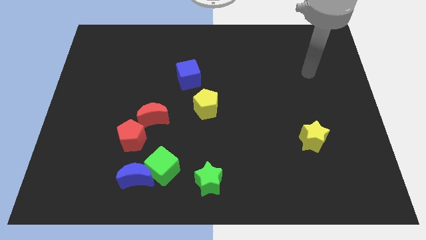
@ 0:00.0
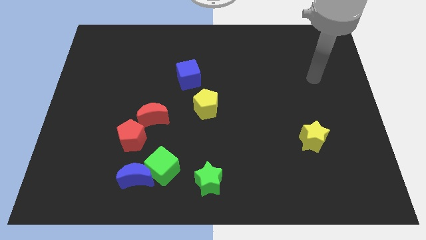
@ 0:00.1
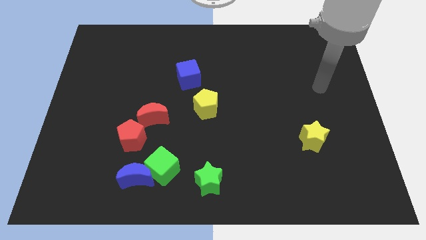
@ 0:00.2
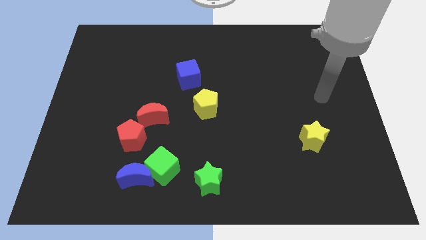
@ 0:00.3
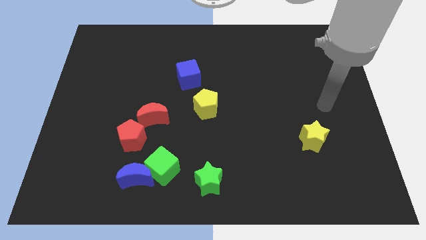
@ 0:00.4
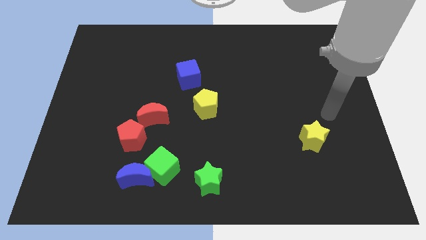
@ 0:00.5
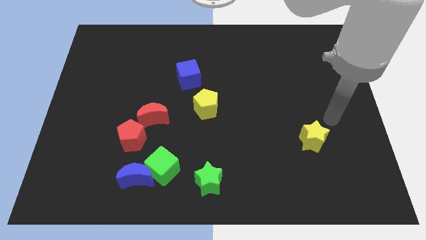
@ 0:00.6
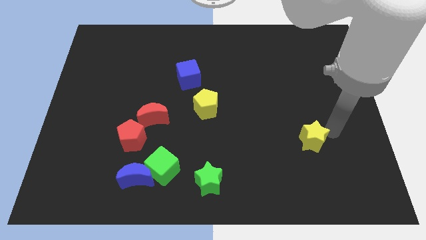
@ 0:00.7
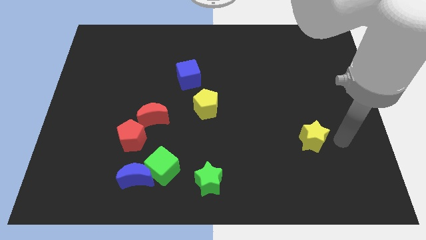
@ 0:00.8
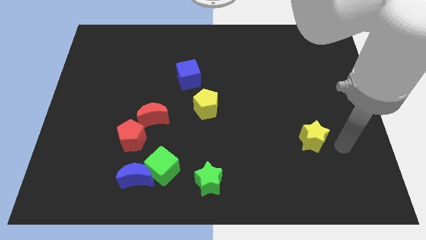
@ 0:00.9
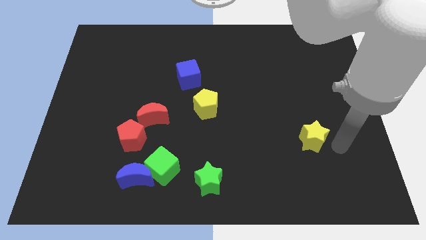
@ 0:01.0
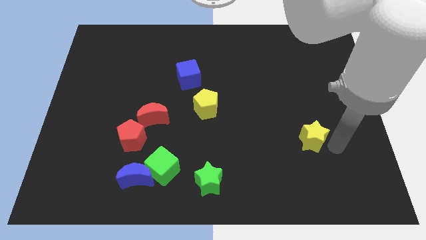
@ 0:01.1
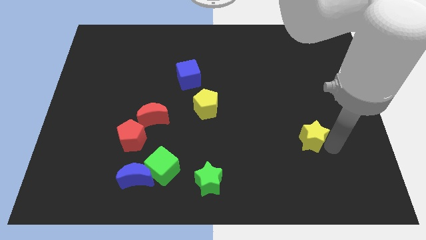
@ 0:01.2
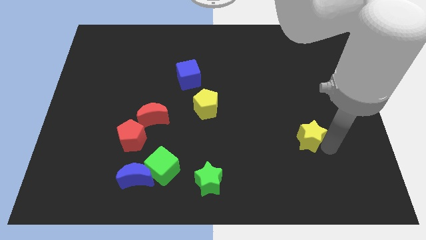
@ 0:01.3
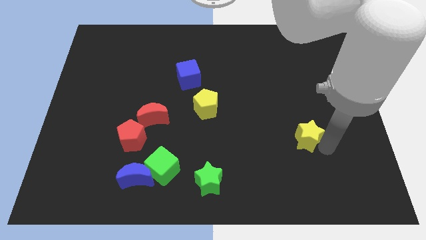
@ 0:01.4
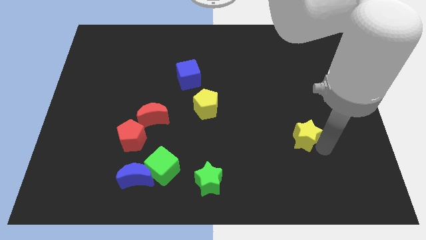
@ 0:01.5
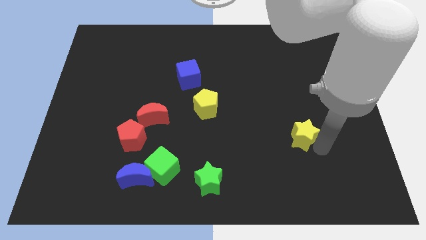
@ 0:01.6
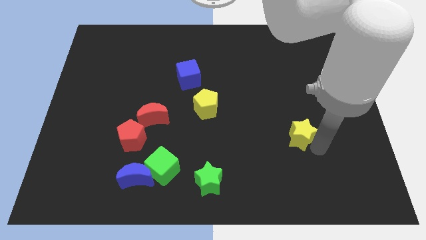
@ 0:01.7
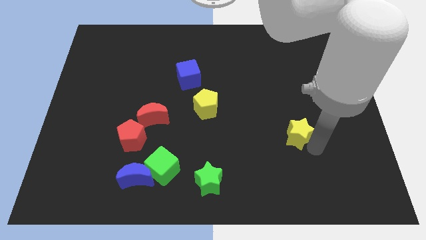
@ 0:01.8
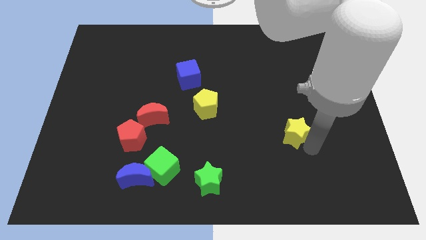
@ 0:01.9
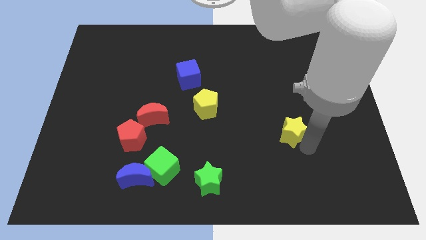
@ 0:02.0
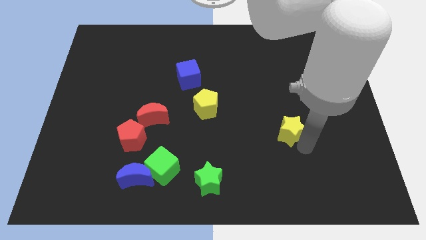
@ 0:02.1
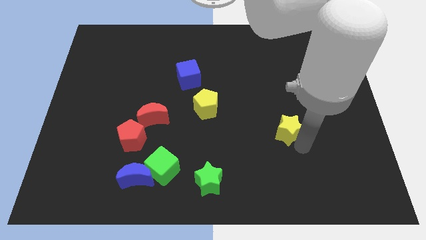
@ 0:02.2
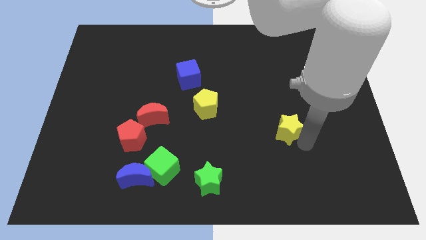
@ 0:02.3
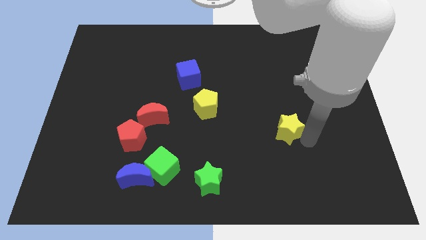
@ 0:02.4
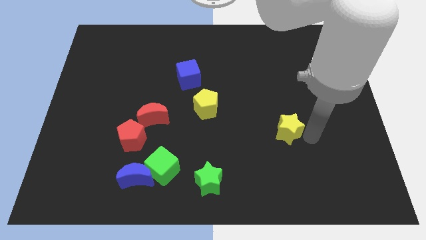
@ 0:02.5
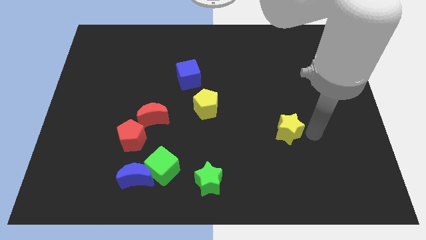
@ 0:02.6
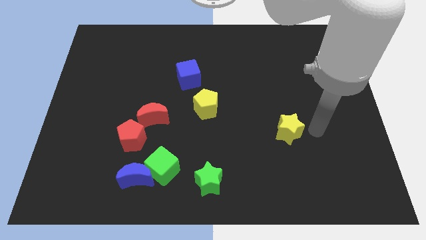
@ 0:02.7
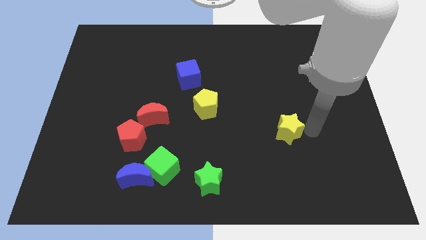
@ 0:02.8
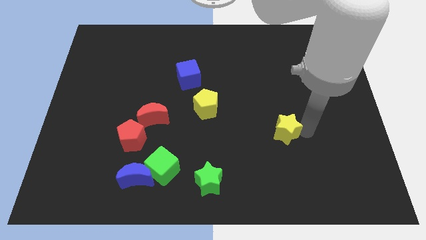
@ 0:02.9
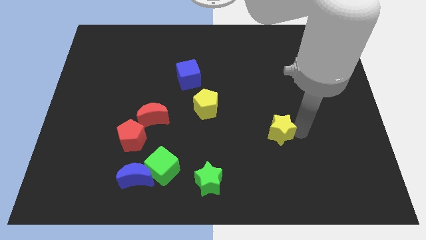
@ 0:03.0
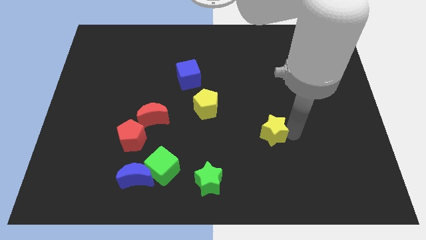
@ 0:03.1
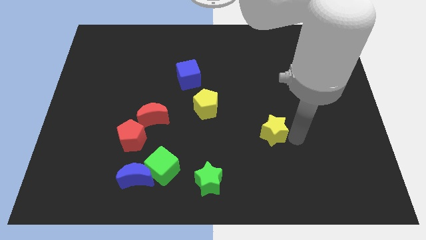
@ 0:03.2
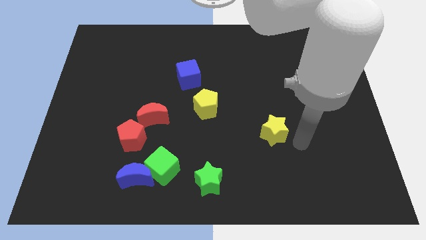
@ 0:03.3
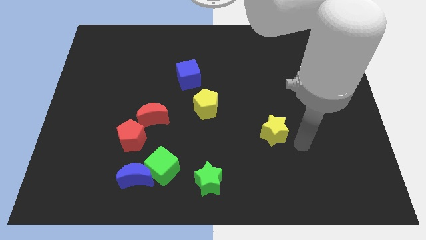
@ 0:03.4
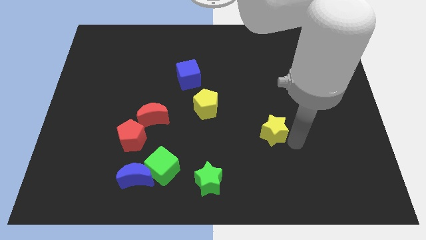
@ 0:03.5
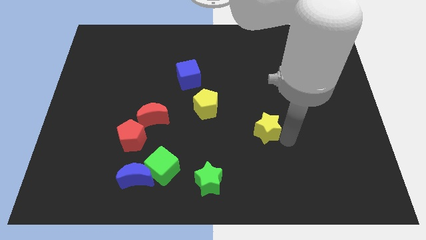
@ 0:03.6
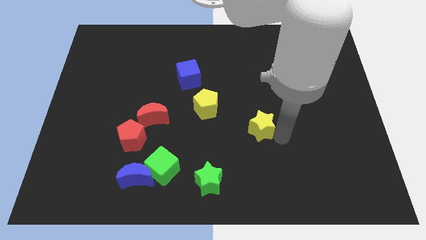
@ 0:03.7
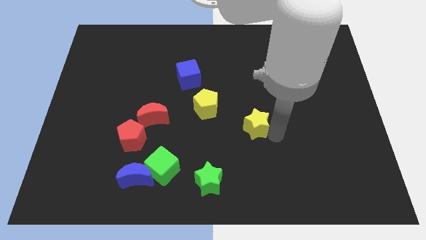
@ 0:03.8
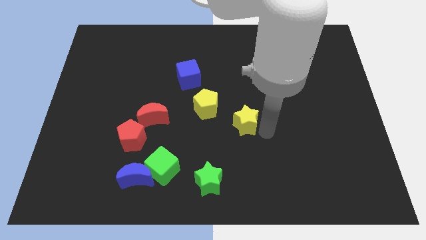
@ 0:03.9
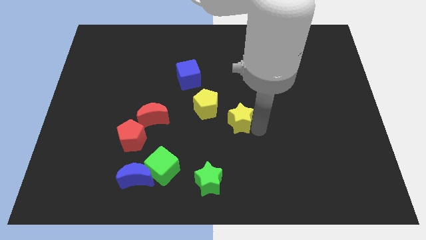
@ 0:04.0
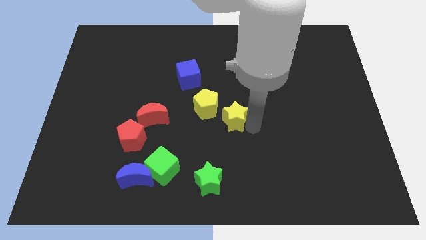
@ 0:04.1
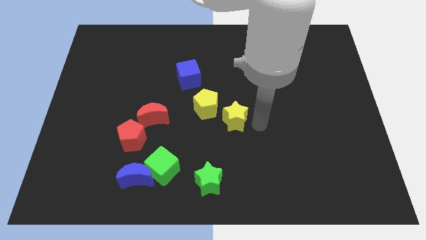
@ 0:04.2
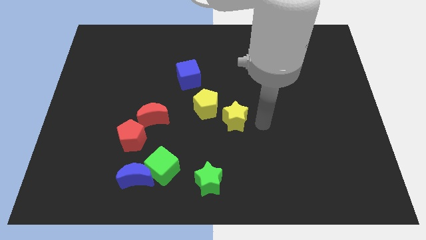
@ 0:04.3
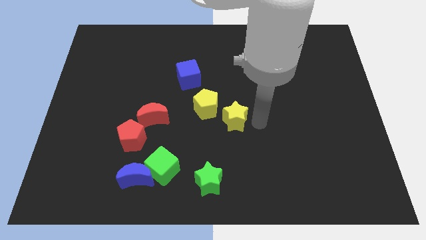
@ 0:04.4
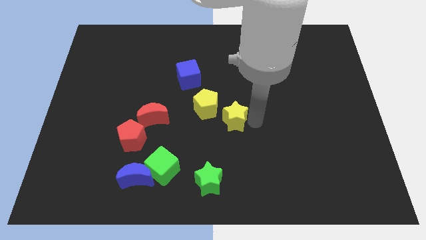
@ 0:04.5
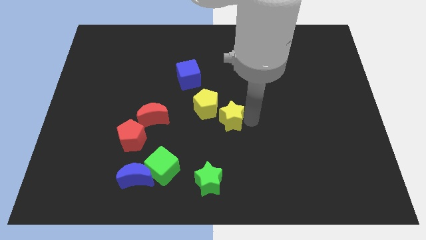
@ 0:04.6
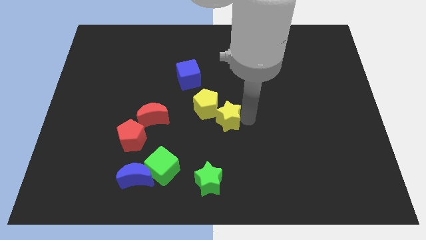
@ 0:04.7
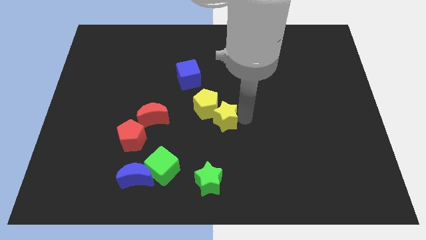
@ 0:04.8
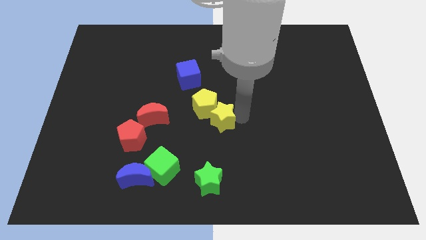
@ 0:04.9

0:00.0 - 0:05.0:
move the yellow star to the right side of the red moon

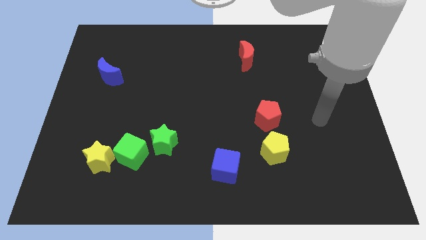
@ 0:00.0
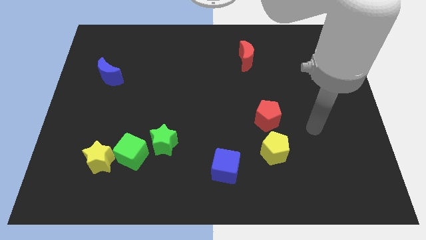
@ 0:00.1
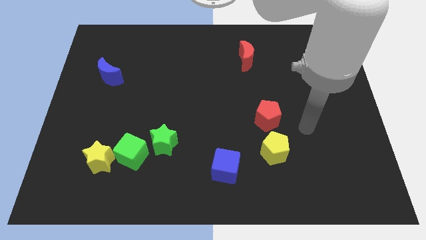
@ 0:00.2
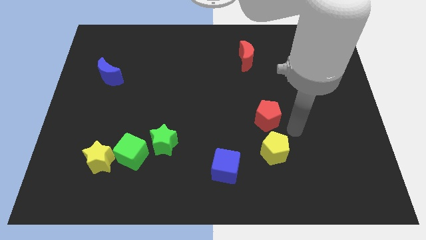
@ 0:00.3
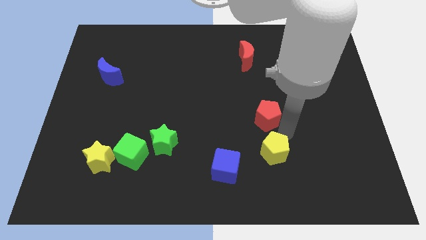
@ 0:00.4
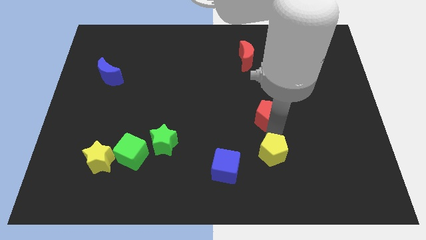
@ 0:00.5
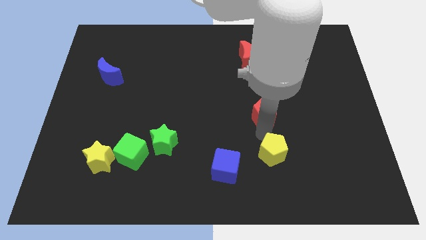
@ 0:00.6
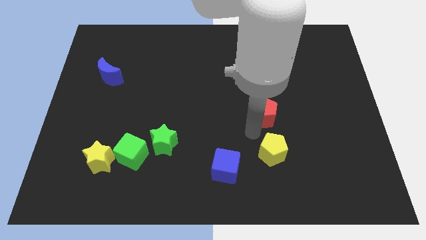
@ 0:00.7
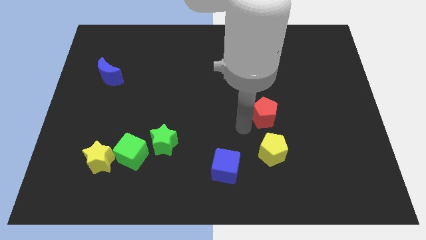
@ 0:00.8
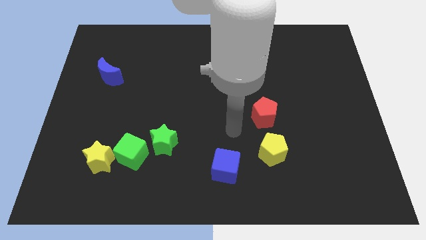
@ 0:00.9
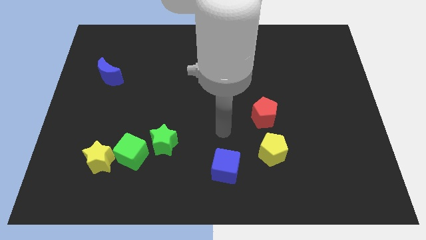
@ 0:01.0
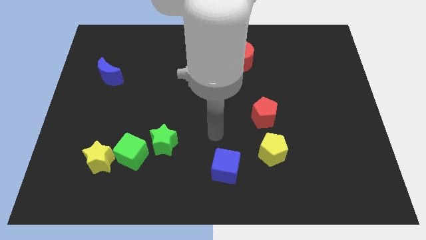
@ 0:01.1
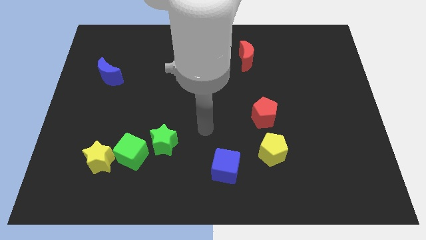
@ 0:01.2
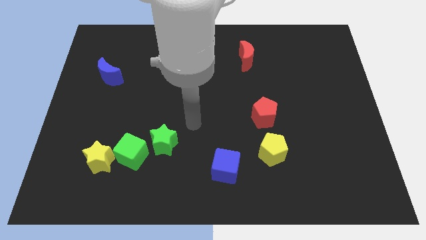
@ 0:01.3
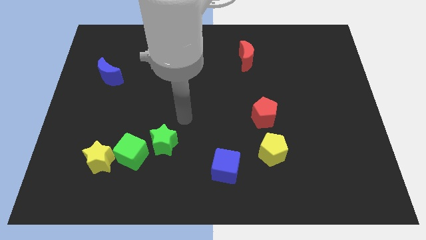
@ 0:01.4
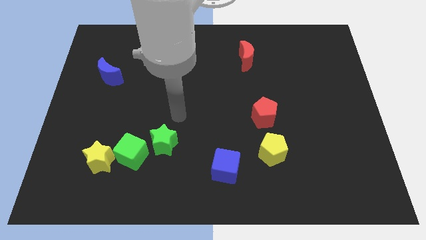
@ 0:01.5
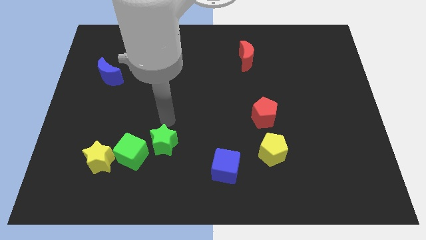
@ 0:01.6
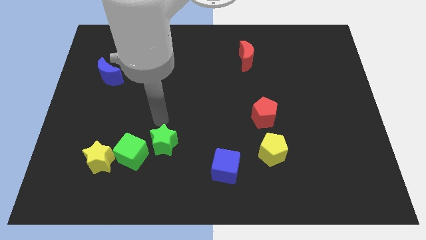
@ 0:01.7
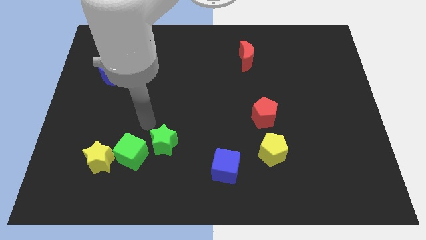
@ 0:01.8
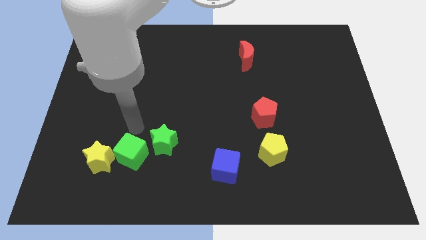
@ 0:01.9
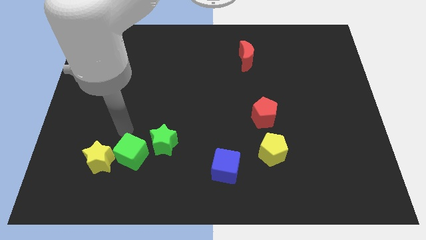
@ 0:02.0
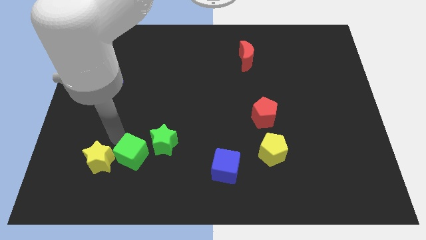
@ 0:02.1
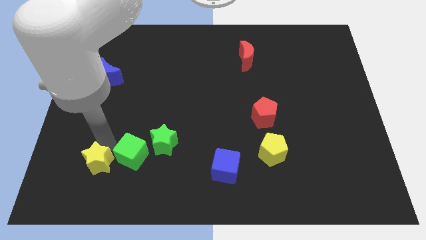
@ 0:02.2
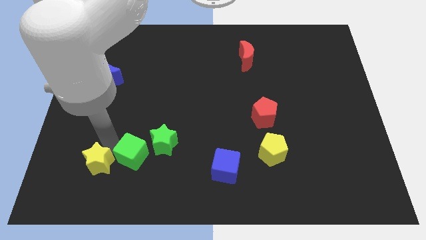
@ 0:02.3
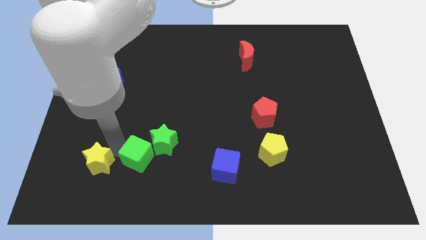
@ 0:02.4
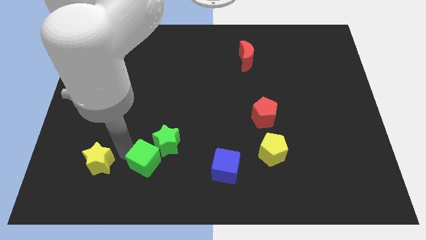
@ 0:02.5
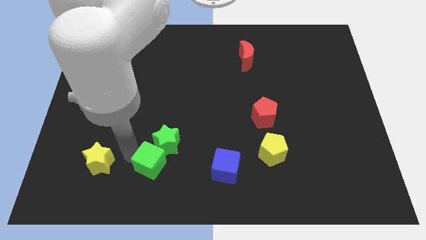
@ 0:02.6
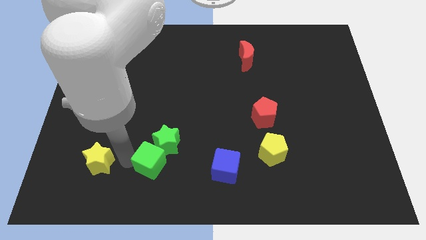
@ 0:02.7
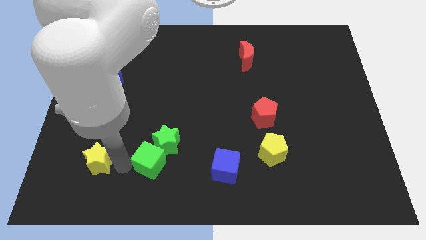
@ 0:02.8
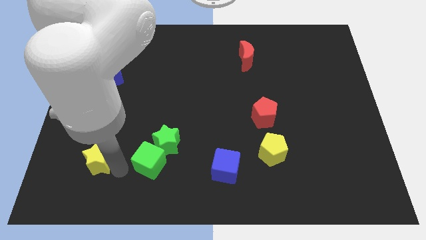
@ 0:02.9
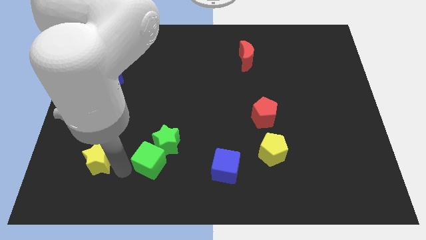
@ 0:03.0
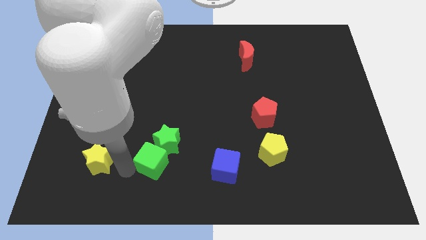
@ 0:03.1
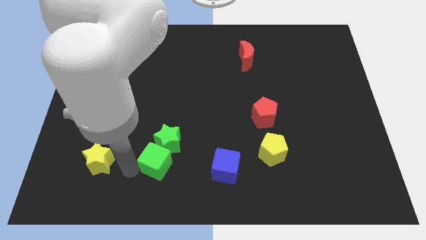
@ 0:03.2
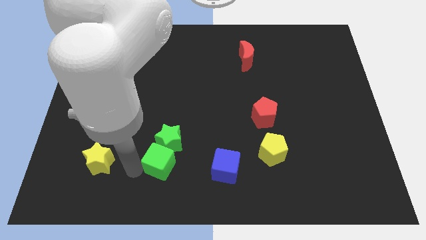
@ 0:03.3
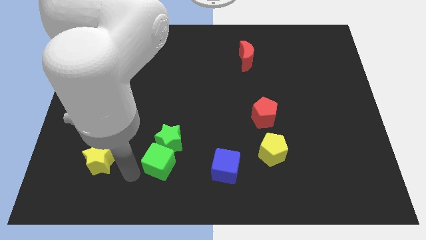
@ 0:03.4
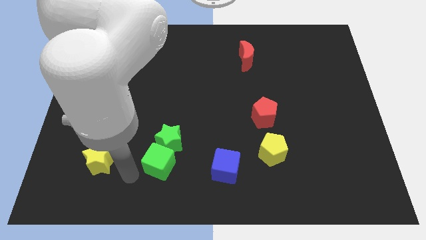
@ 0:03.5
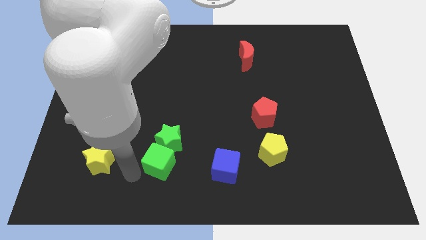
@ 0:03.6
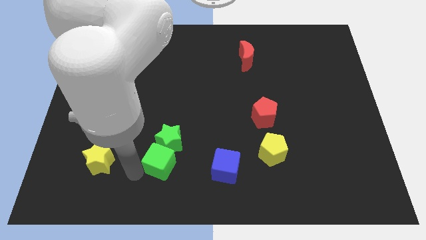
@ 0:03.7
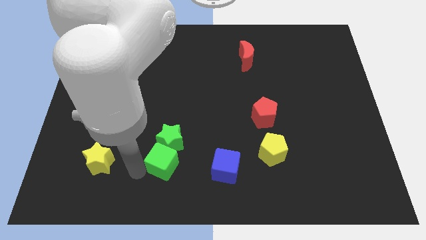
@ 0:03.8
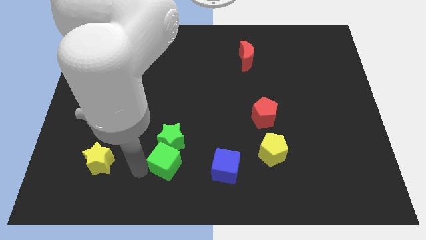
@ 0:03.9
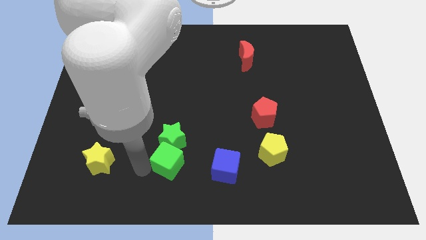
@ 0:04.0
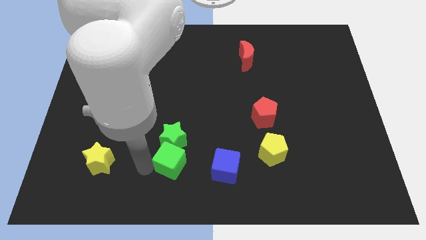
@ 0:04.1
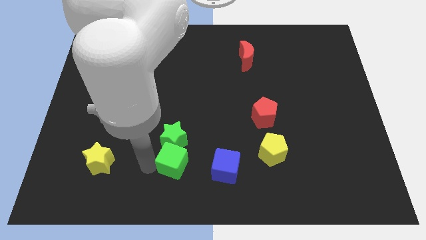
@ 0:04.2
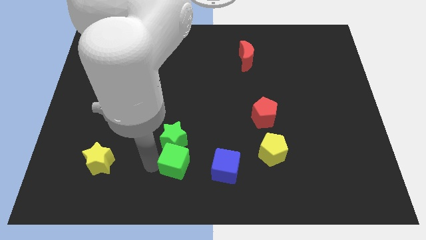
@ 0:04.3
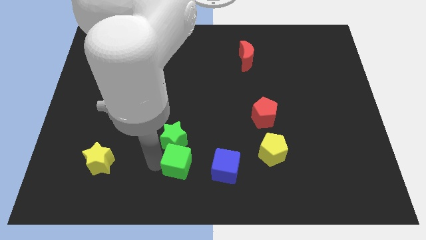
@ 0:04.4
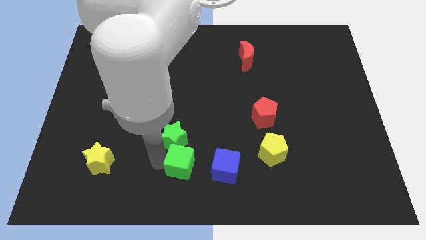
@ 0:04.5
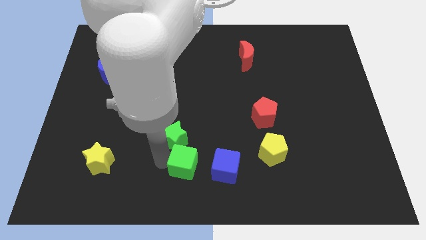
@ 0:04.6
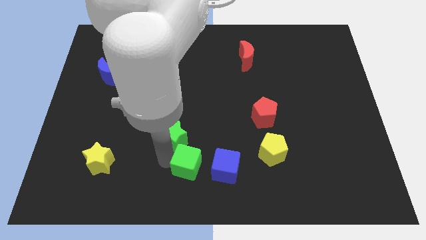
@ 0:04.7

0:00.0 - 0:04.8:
push the green cube to the top left side of the blue cube
